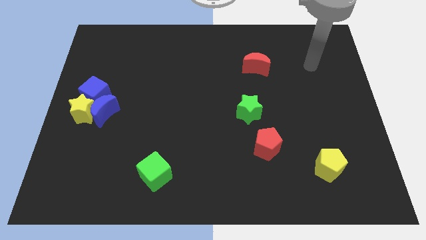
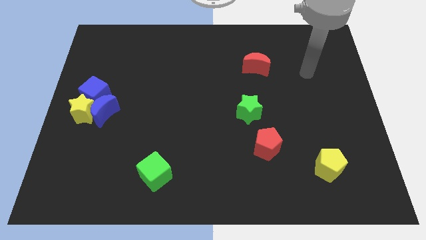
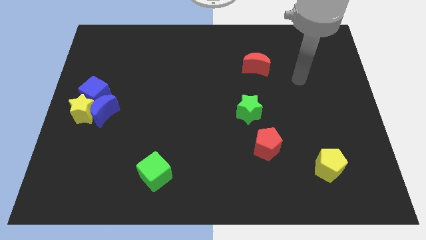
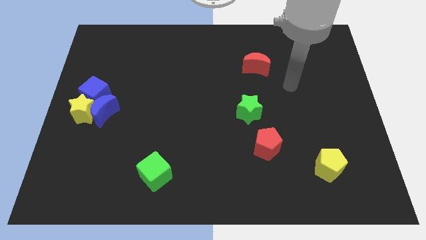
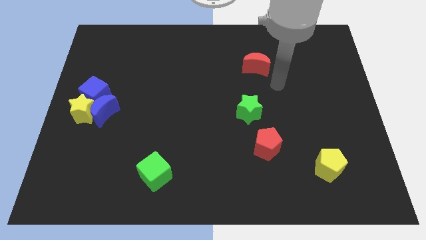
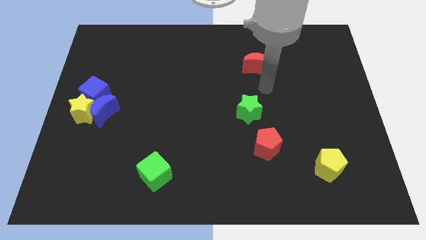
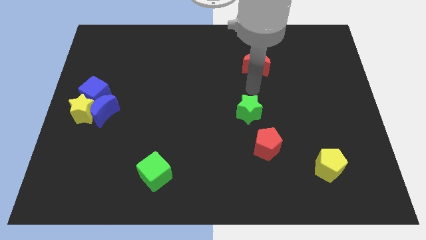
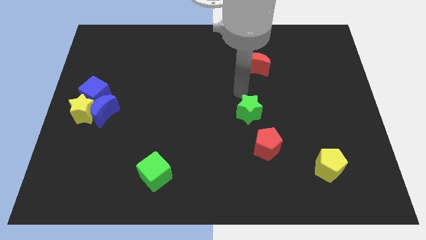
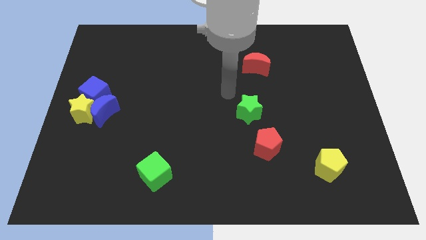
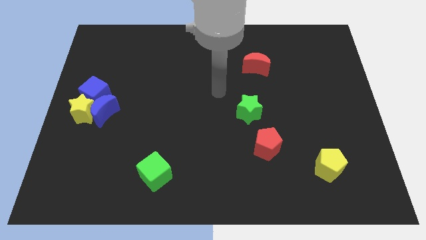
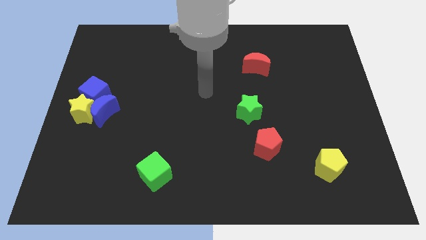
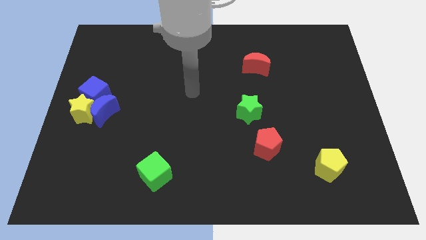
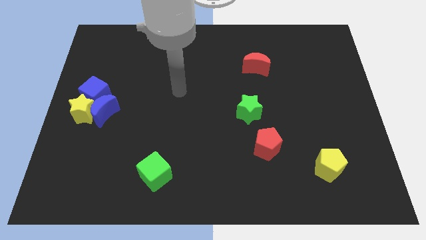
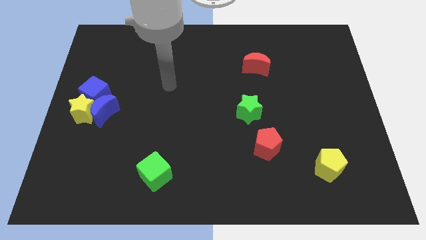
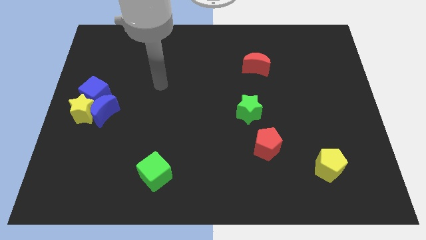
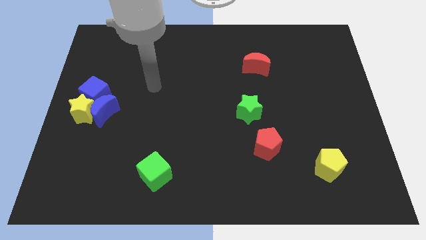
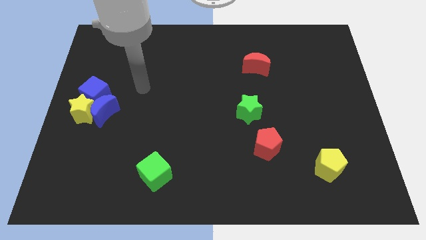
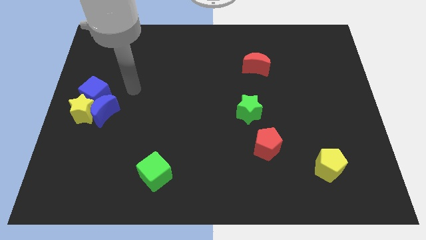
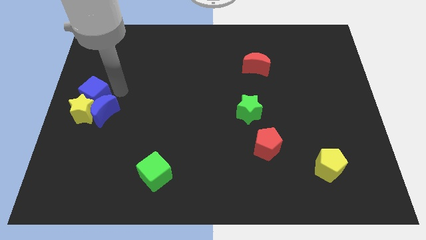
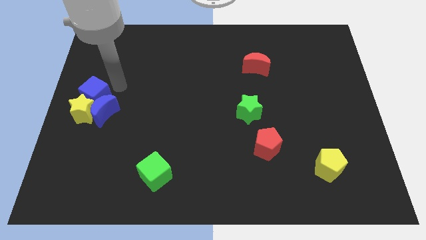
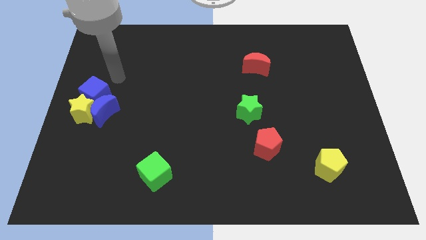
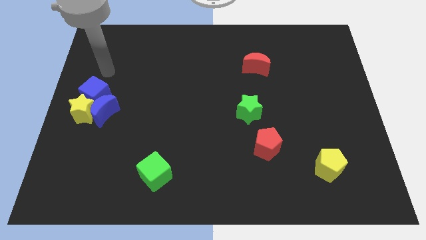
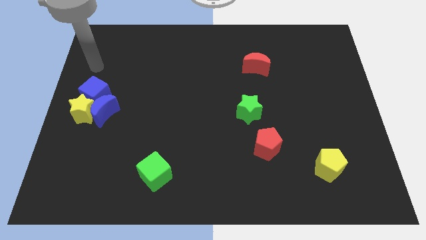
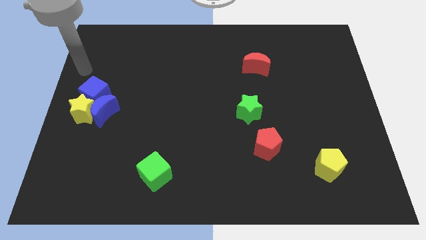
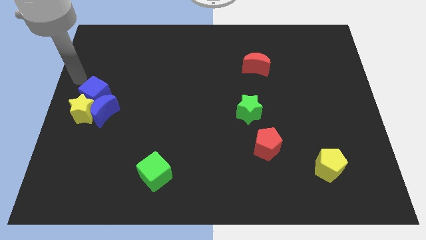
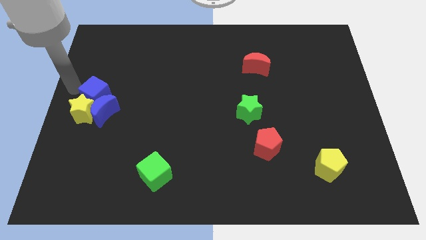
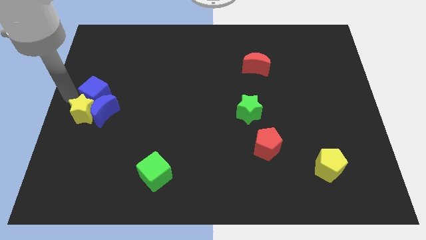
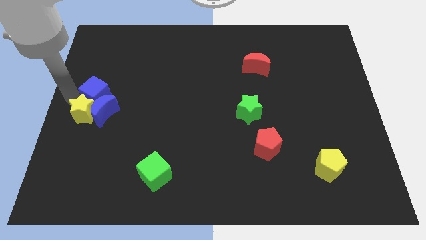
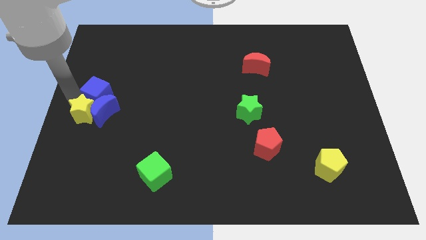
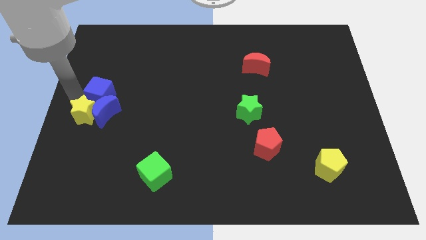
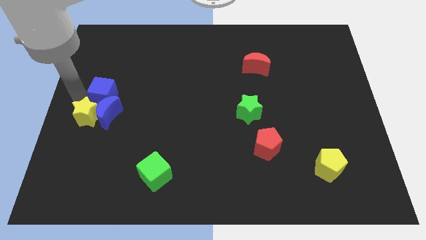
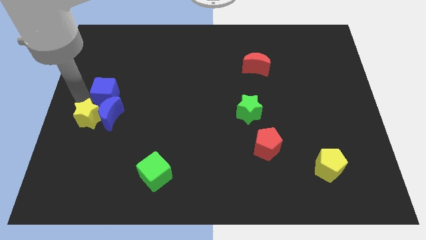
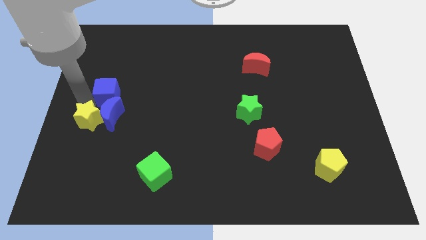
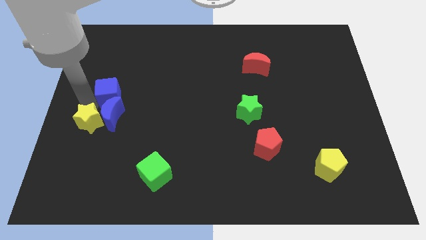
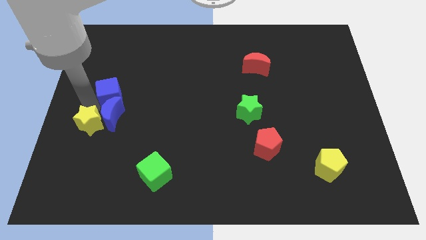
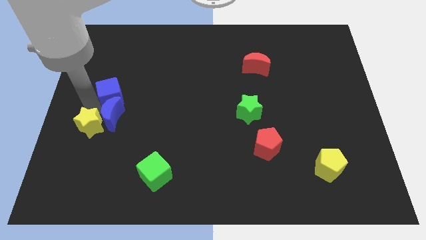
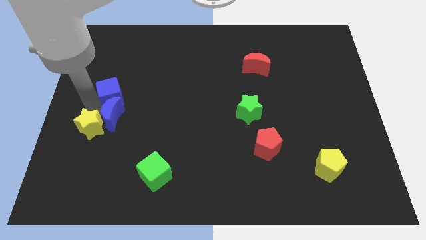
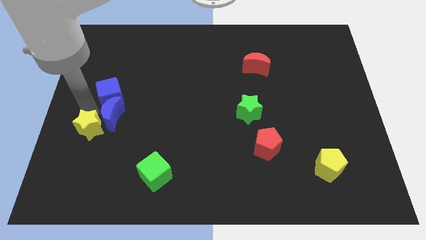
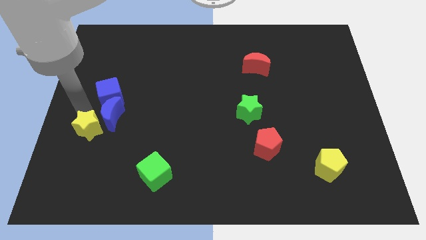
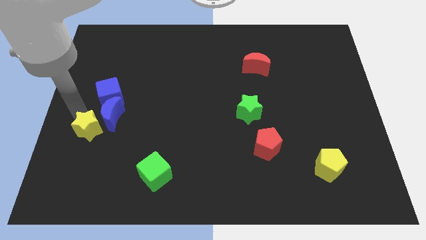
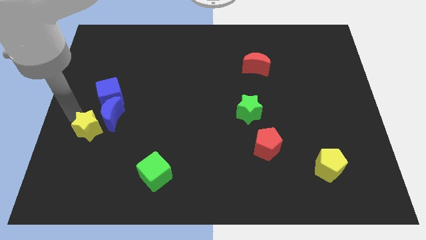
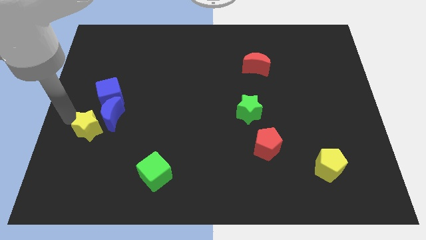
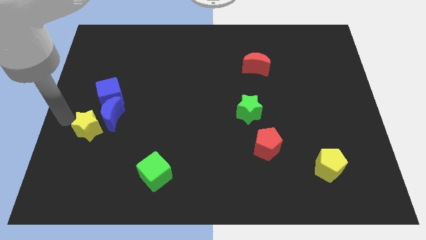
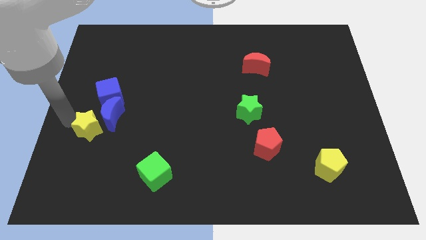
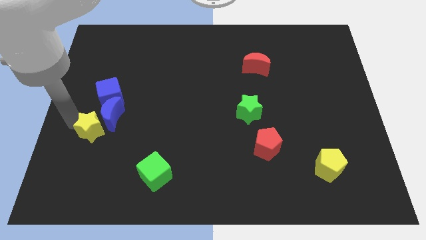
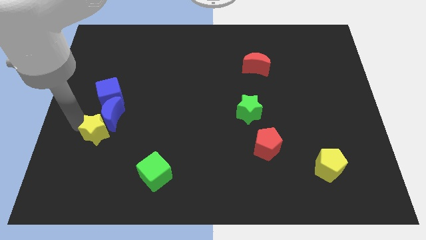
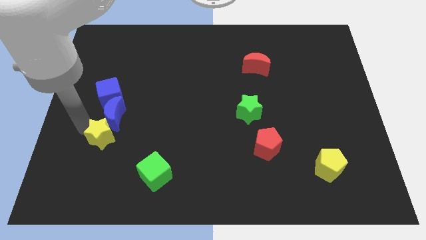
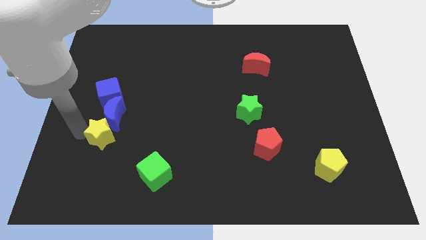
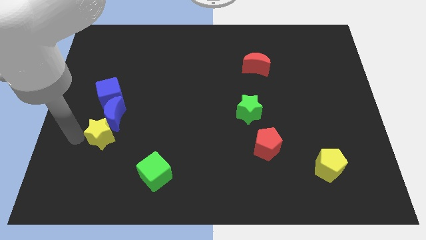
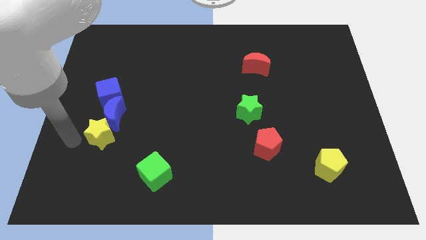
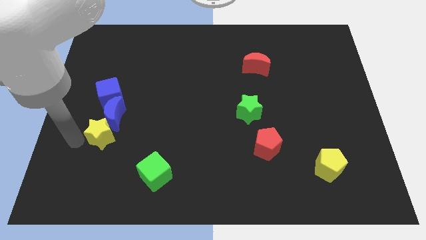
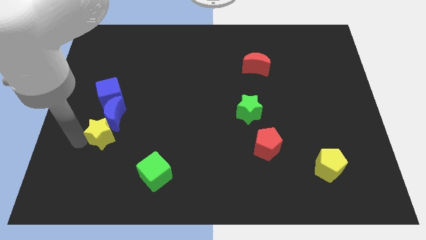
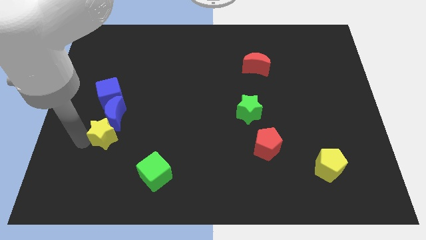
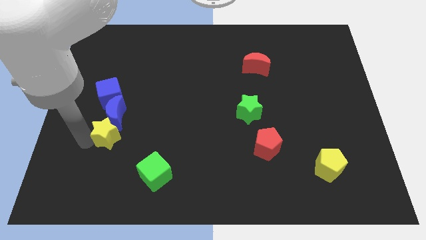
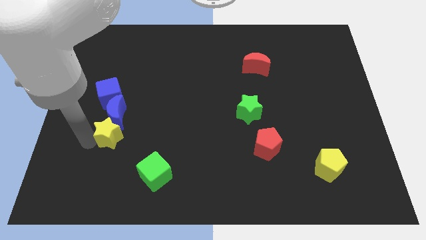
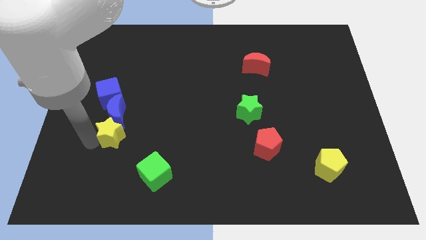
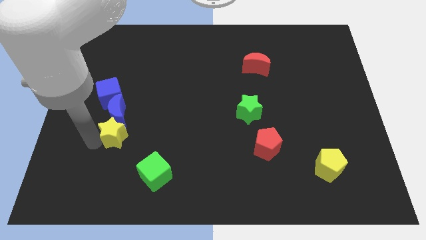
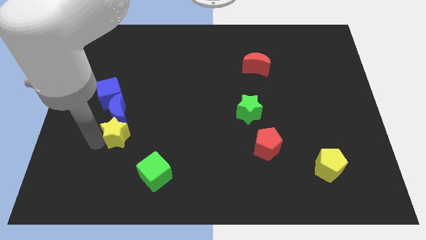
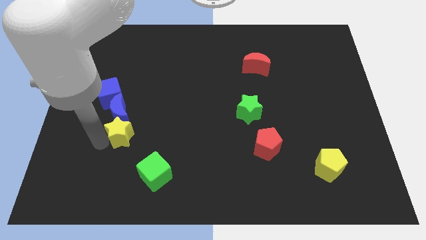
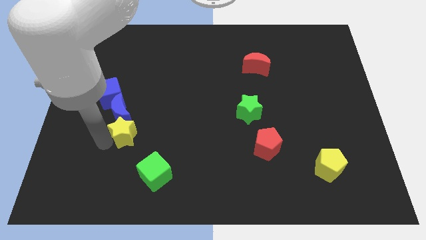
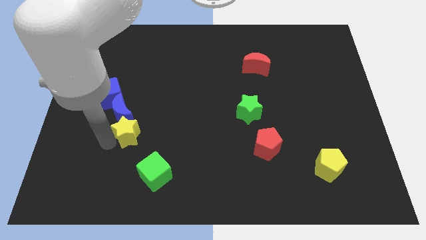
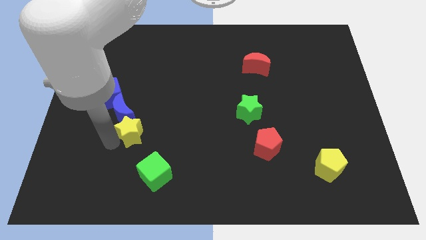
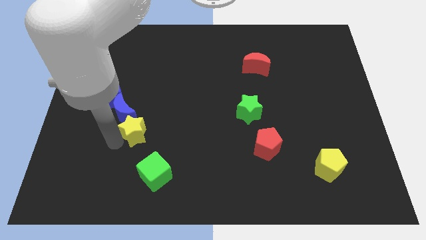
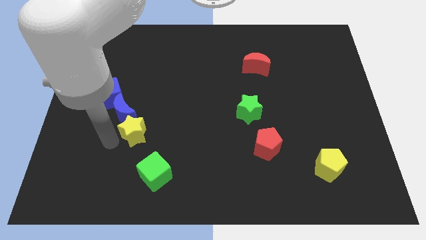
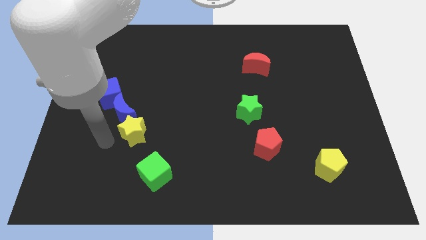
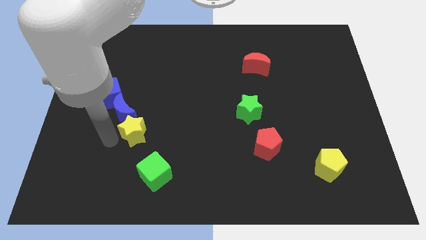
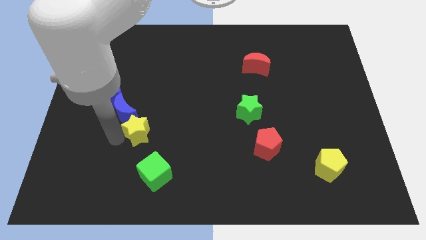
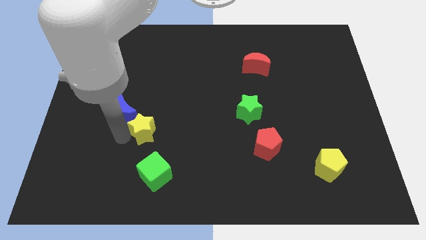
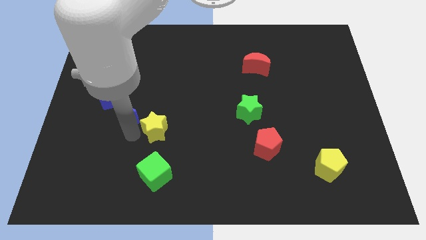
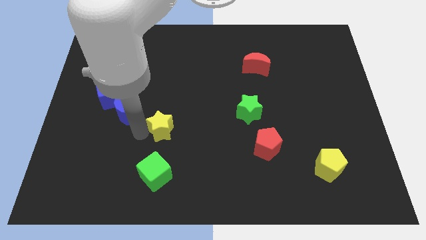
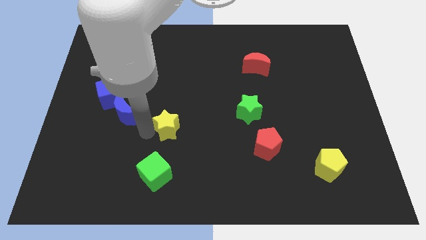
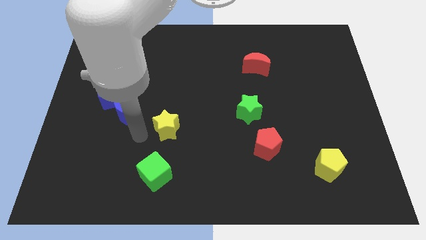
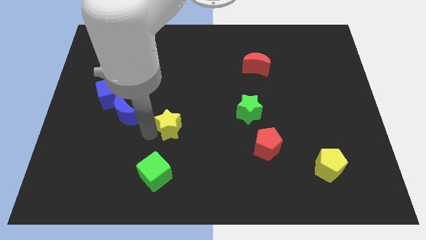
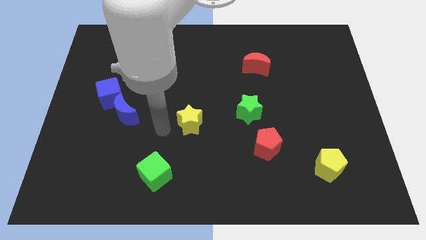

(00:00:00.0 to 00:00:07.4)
push the yellow star right

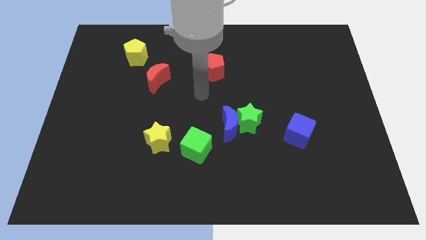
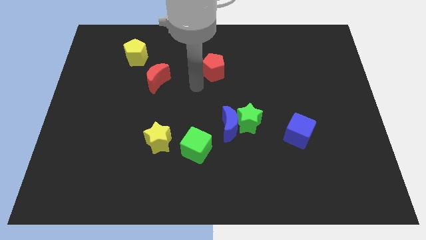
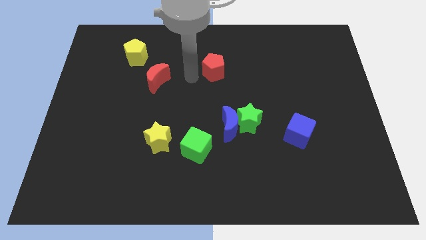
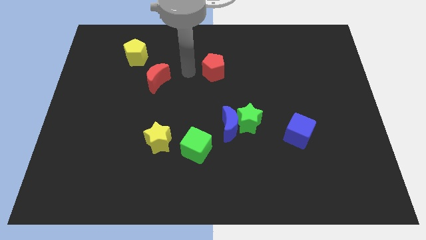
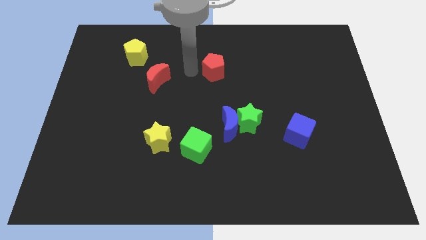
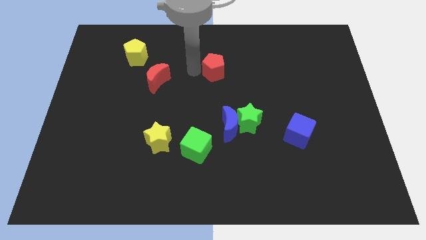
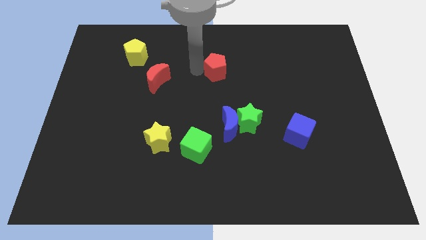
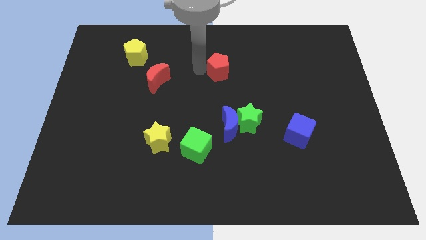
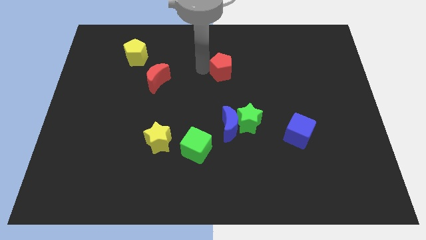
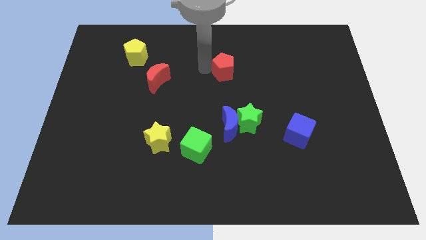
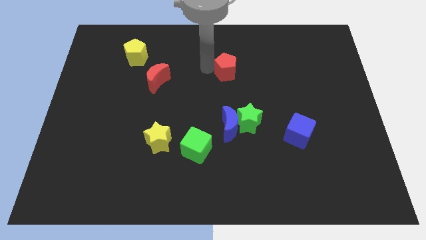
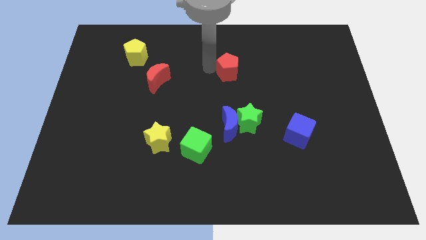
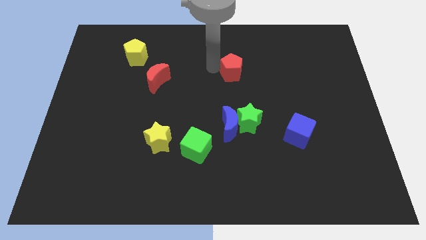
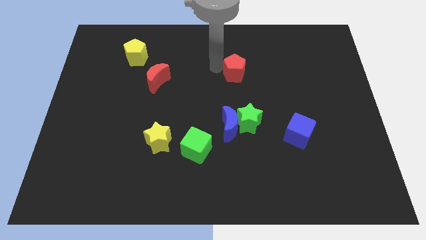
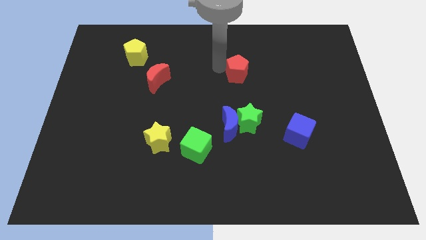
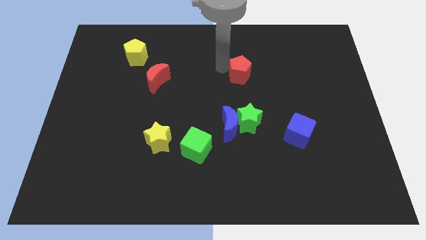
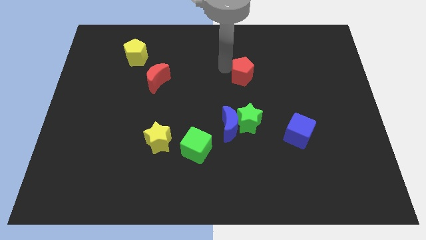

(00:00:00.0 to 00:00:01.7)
push the red pentagon to the right a little bit
